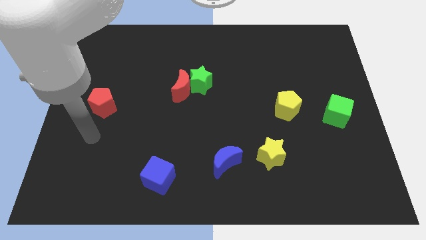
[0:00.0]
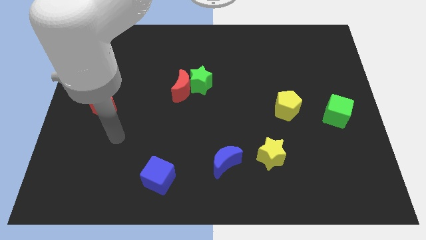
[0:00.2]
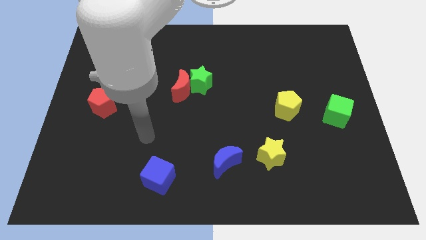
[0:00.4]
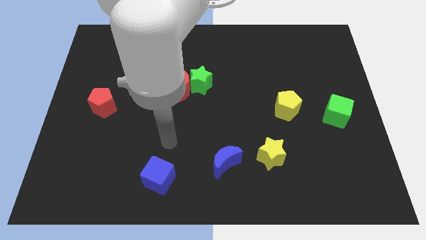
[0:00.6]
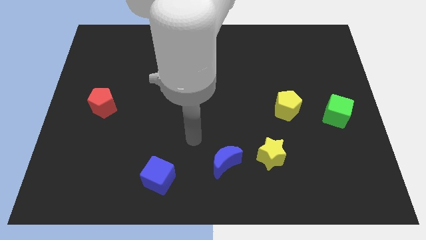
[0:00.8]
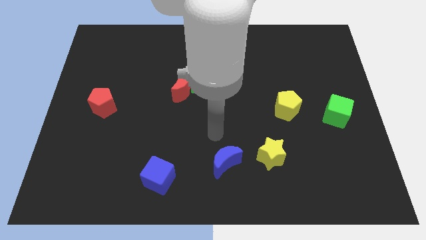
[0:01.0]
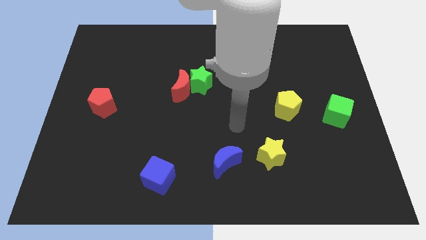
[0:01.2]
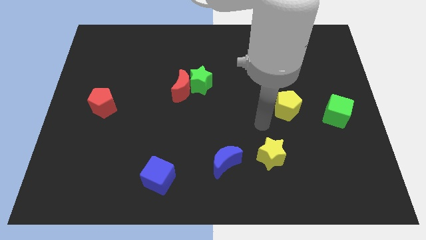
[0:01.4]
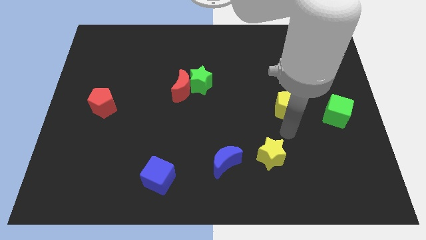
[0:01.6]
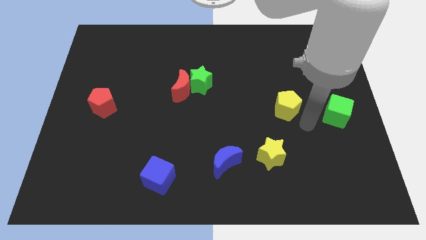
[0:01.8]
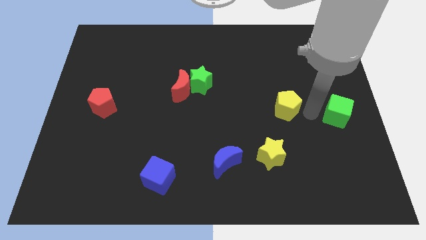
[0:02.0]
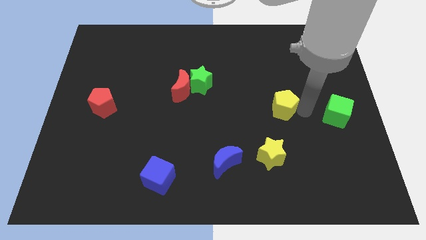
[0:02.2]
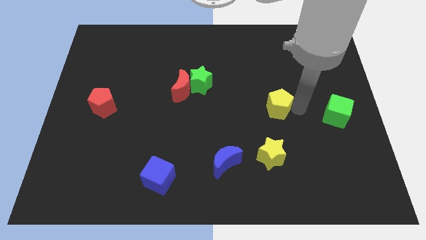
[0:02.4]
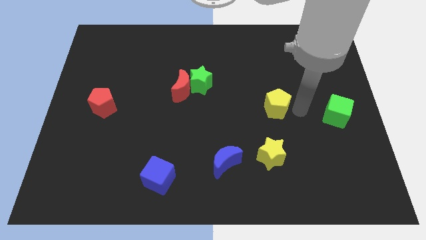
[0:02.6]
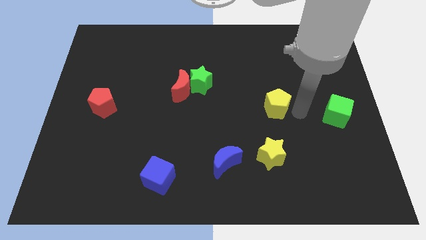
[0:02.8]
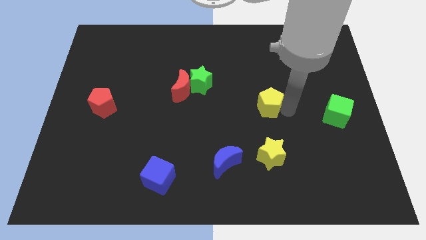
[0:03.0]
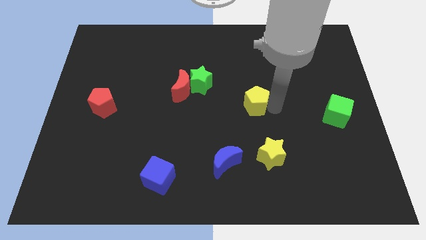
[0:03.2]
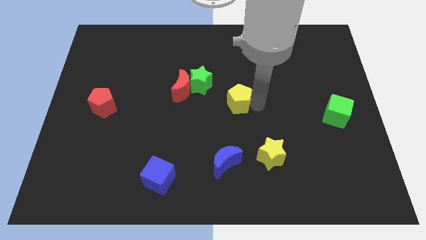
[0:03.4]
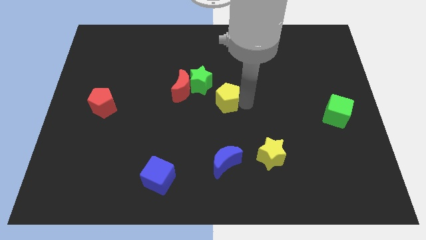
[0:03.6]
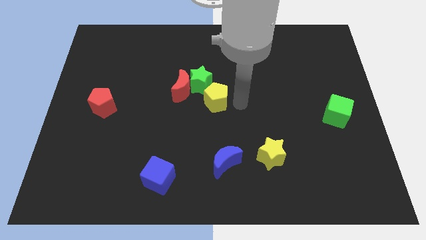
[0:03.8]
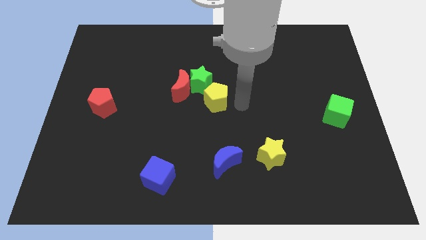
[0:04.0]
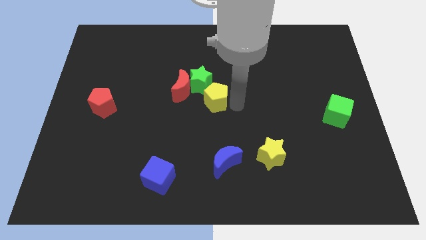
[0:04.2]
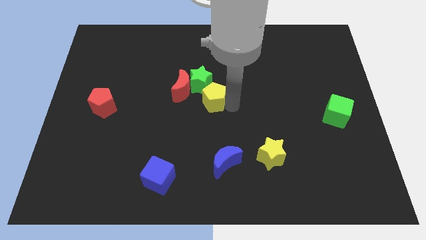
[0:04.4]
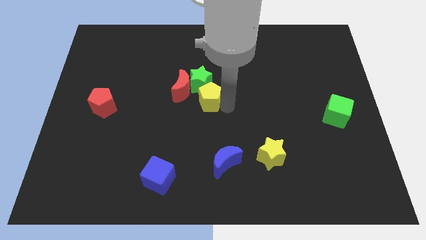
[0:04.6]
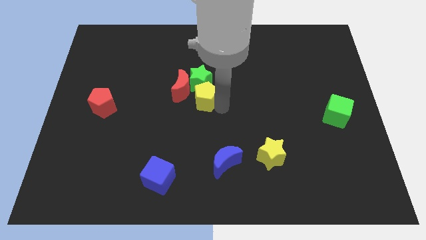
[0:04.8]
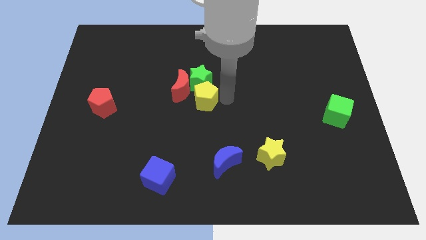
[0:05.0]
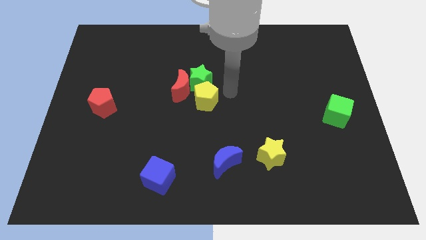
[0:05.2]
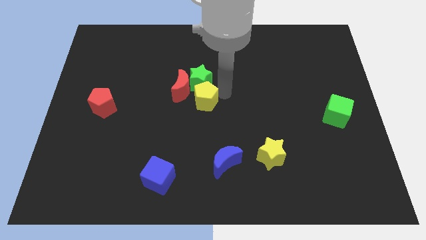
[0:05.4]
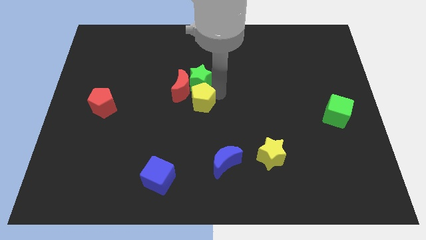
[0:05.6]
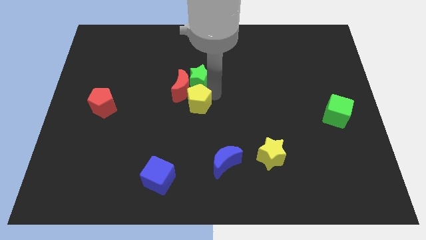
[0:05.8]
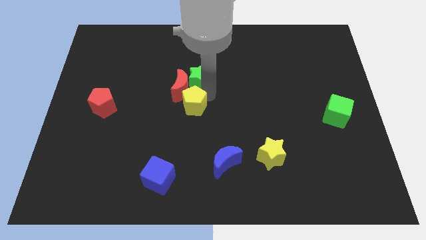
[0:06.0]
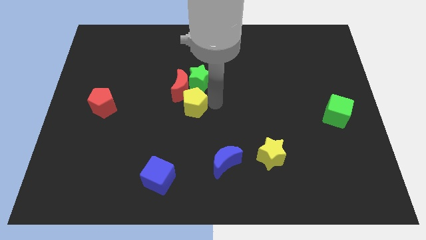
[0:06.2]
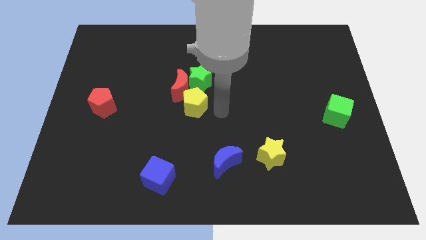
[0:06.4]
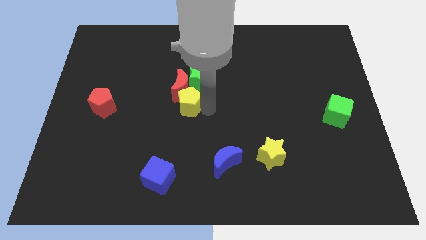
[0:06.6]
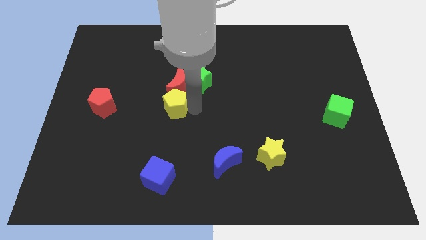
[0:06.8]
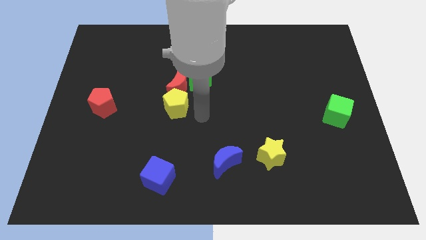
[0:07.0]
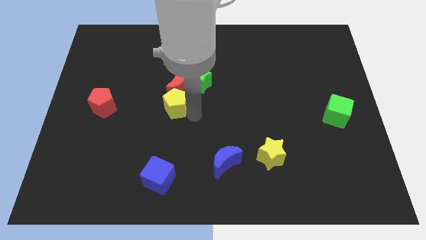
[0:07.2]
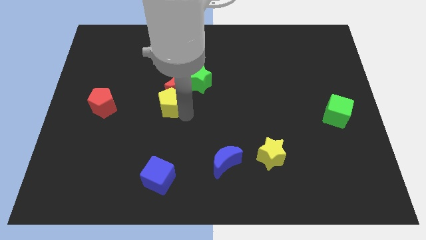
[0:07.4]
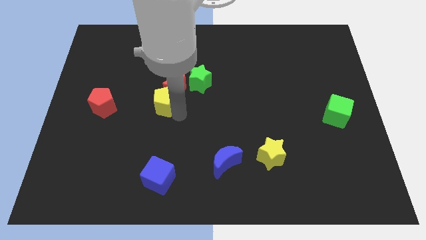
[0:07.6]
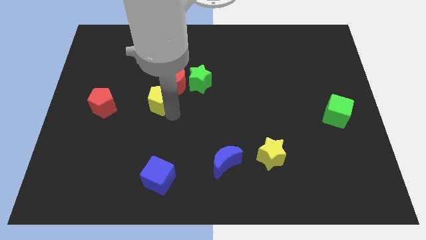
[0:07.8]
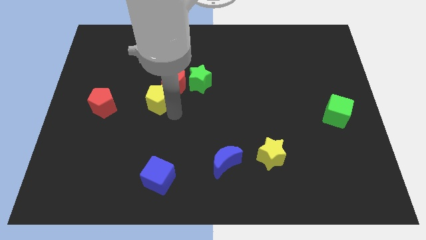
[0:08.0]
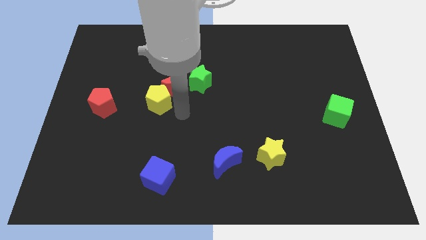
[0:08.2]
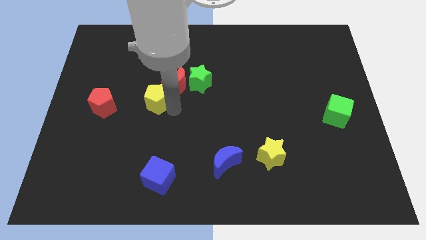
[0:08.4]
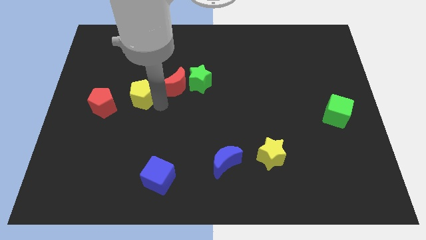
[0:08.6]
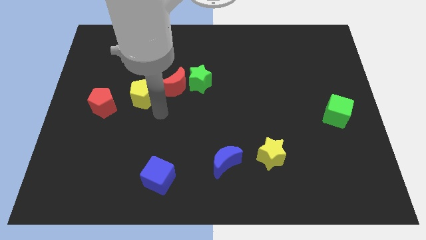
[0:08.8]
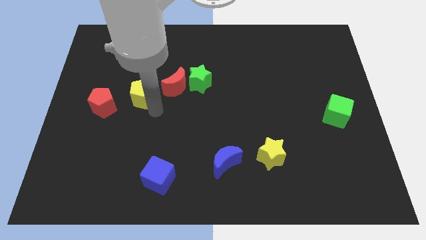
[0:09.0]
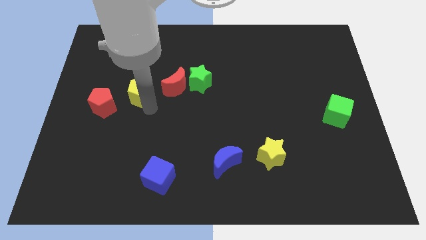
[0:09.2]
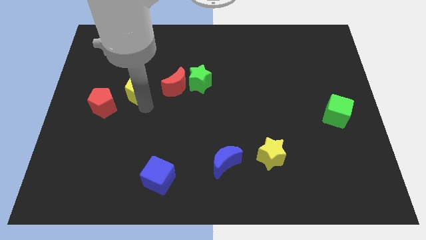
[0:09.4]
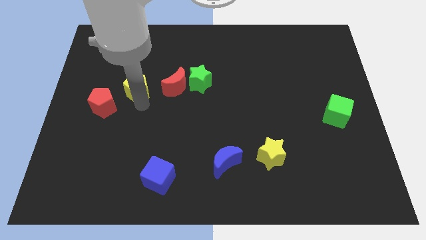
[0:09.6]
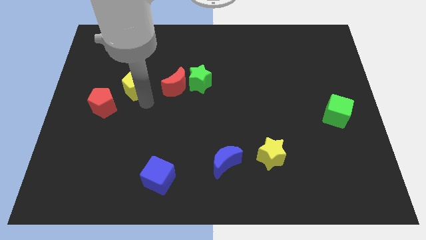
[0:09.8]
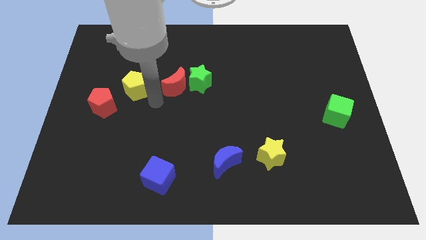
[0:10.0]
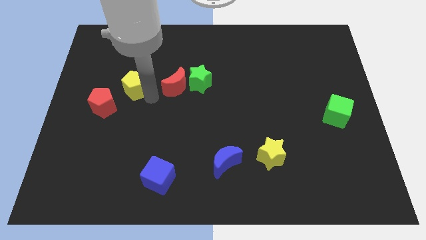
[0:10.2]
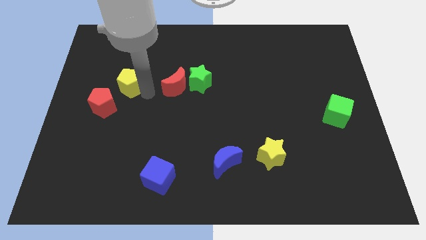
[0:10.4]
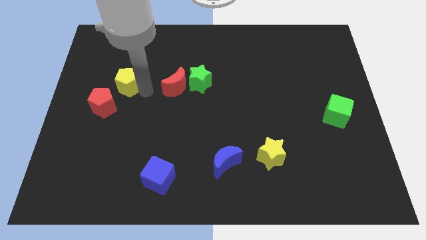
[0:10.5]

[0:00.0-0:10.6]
slide the yellow pentagon above the red pentagon

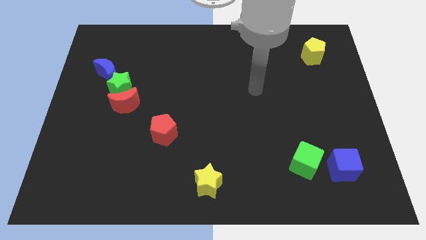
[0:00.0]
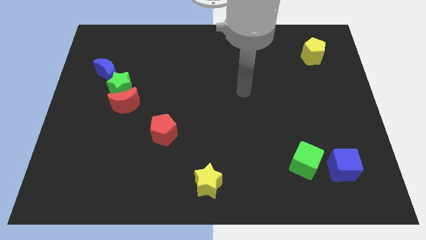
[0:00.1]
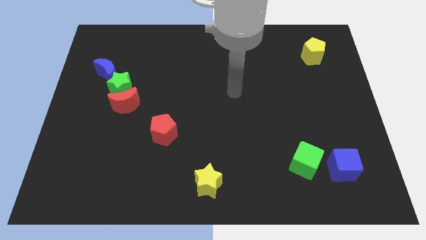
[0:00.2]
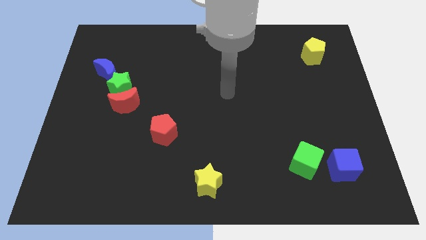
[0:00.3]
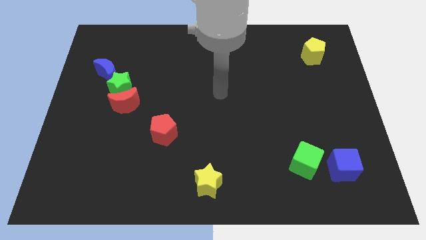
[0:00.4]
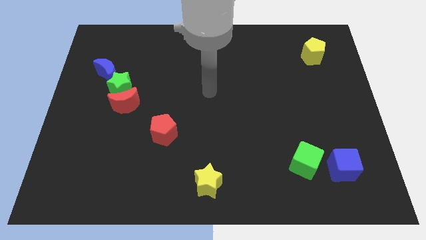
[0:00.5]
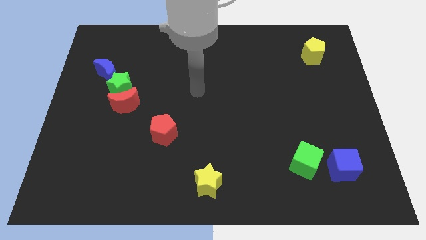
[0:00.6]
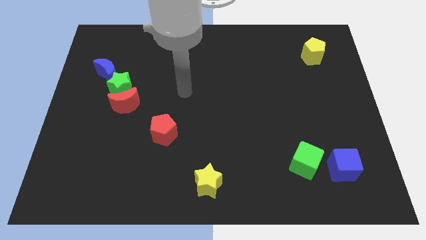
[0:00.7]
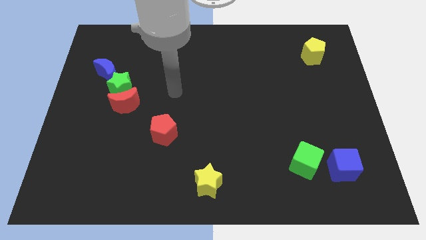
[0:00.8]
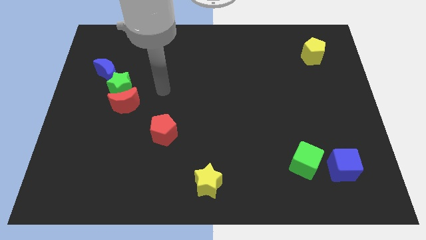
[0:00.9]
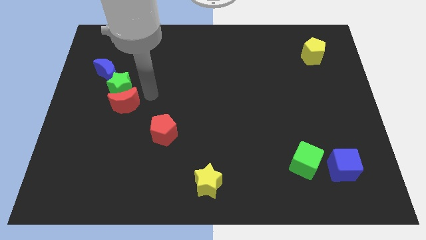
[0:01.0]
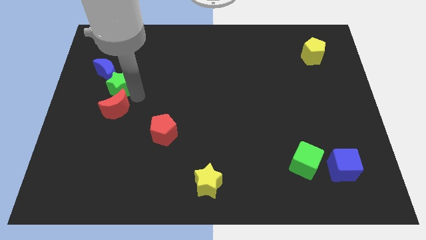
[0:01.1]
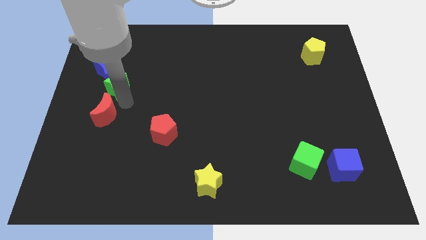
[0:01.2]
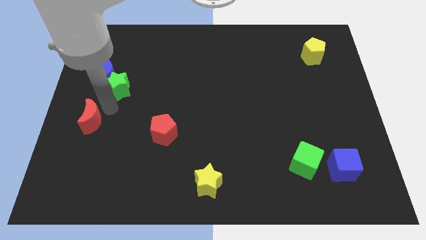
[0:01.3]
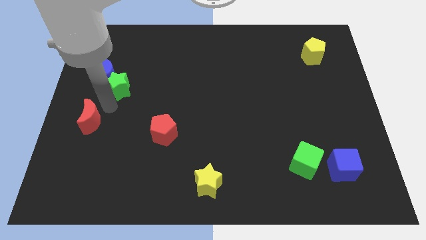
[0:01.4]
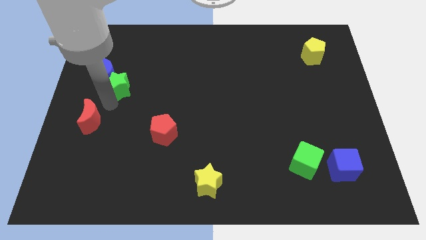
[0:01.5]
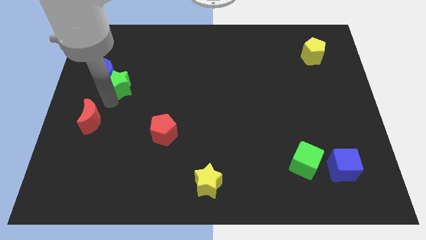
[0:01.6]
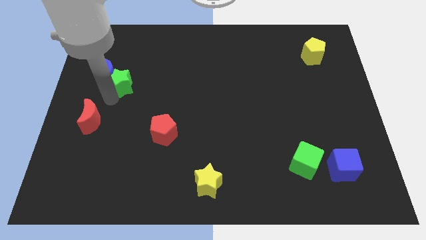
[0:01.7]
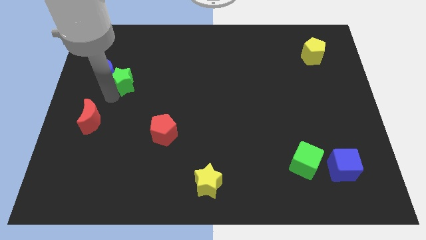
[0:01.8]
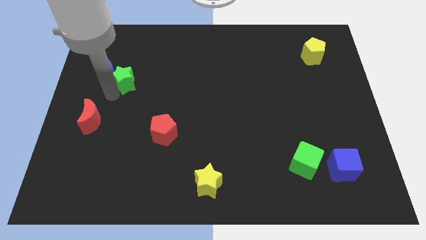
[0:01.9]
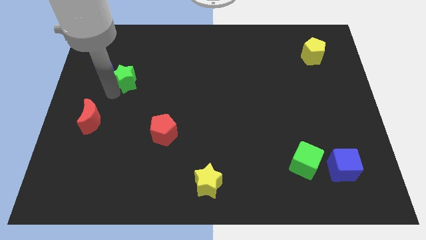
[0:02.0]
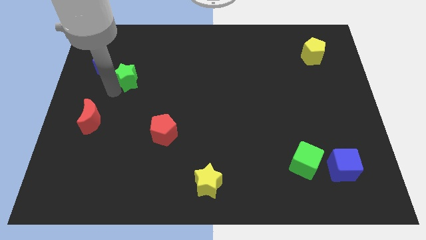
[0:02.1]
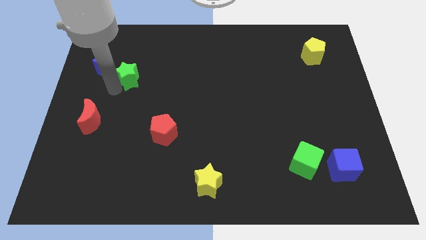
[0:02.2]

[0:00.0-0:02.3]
slide the green star to the top right of the blue moon
